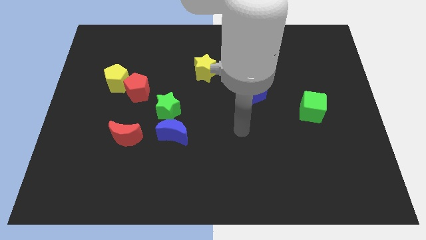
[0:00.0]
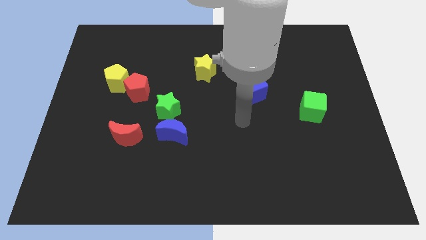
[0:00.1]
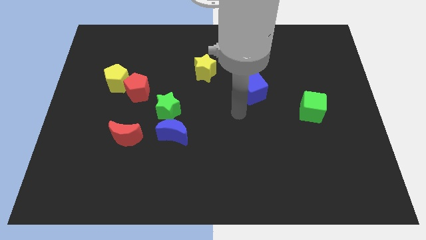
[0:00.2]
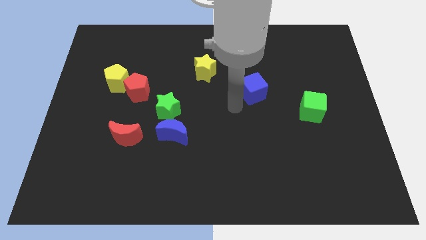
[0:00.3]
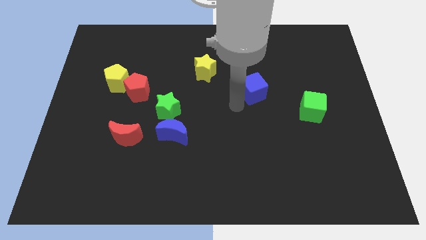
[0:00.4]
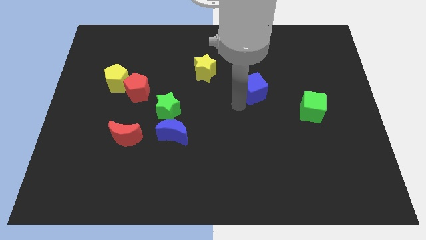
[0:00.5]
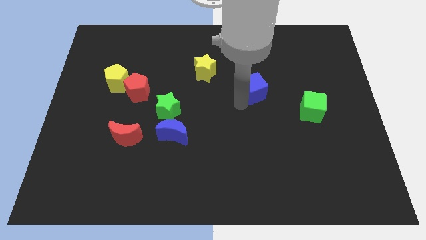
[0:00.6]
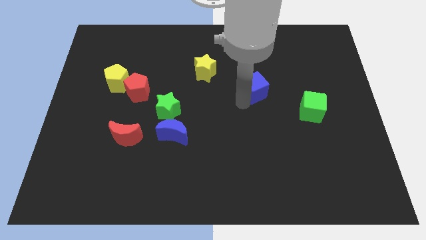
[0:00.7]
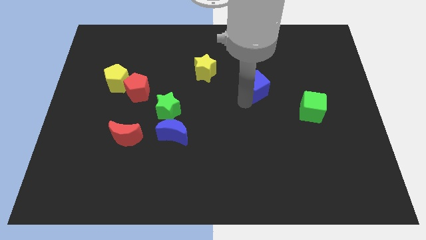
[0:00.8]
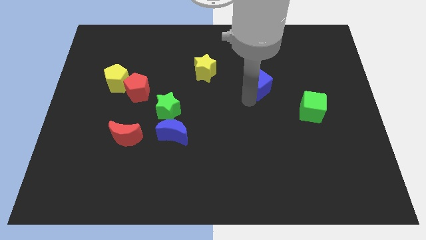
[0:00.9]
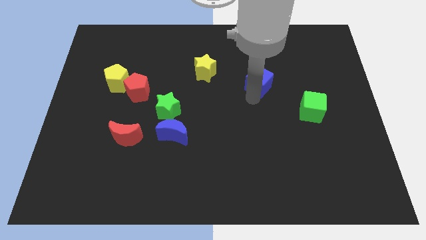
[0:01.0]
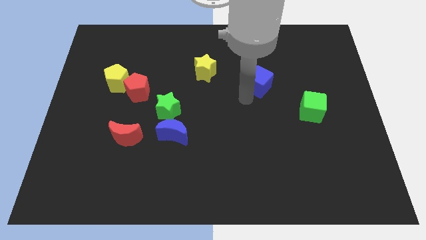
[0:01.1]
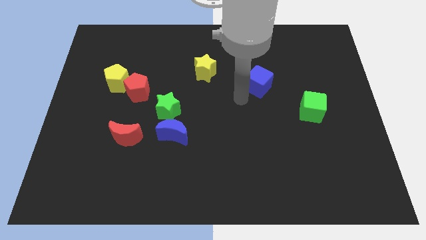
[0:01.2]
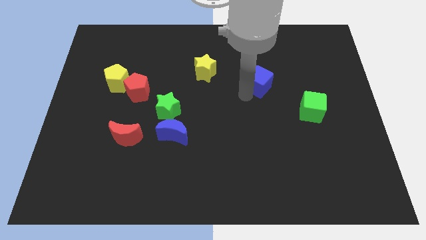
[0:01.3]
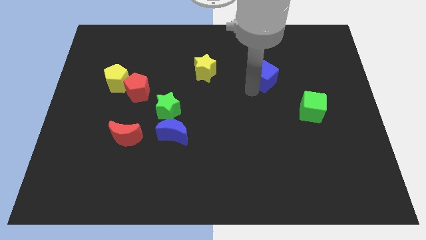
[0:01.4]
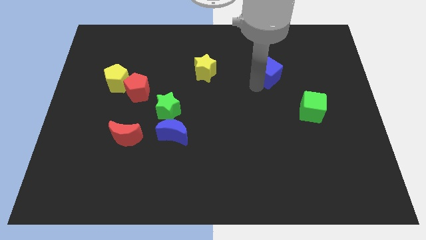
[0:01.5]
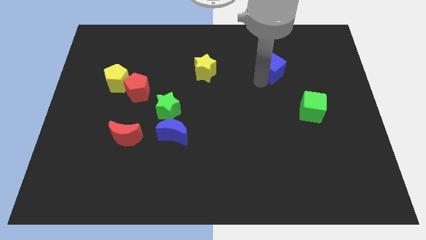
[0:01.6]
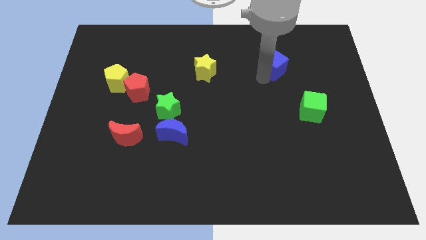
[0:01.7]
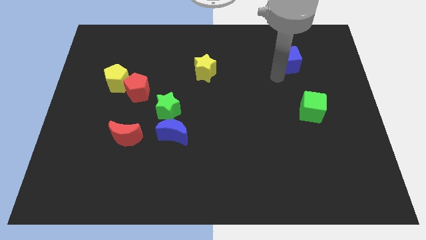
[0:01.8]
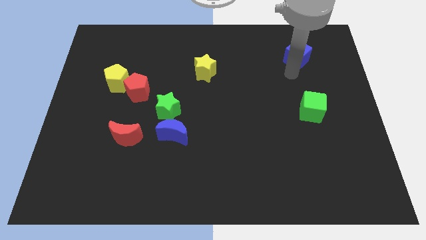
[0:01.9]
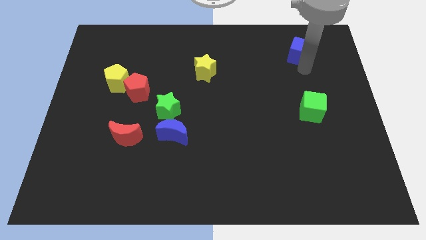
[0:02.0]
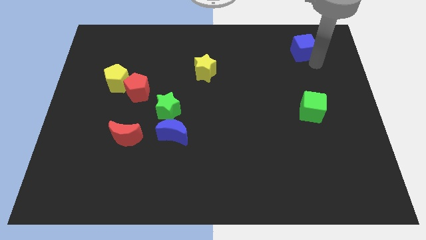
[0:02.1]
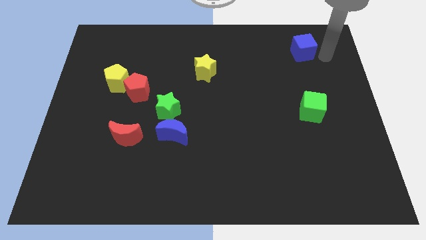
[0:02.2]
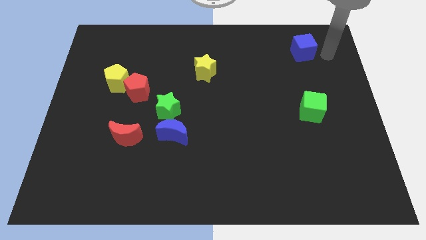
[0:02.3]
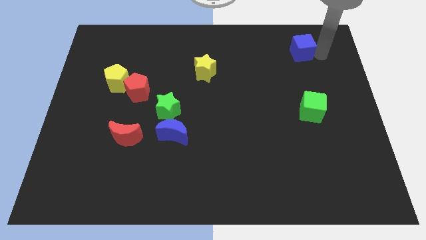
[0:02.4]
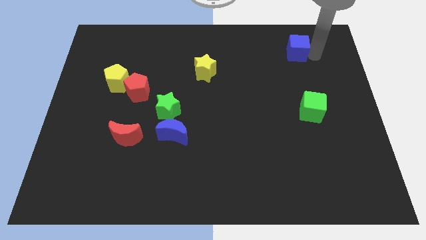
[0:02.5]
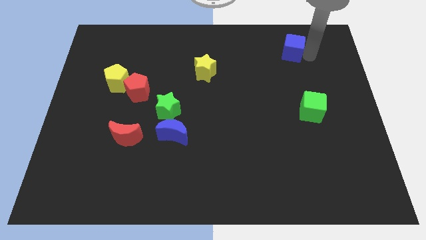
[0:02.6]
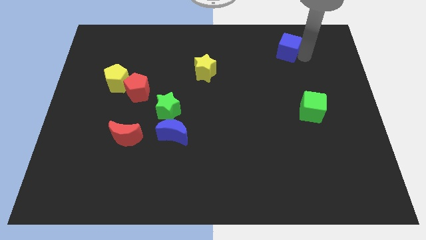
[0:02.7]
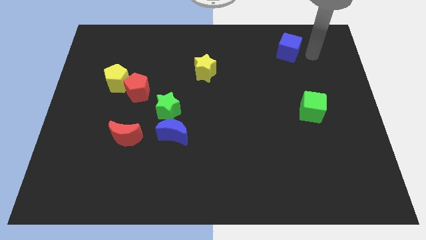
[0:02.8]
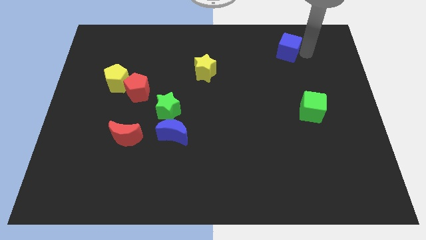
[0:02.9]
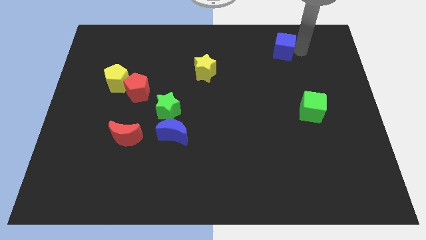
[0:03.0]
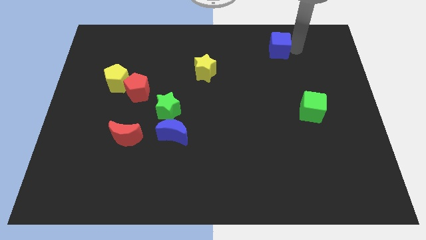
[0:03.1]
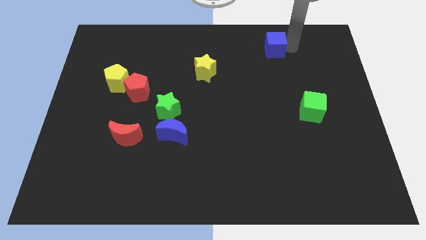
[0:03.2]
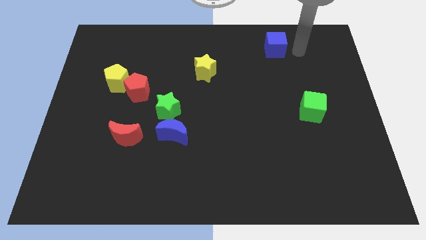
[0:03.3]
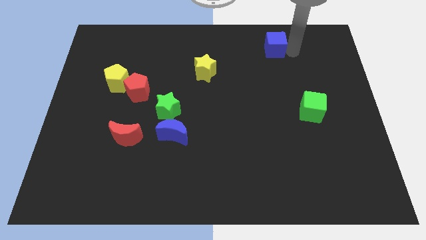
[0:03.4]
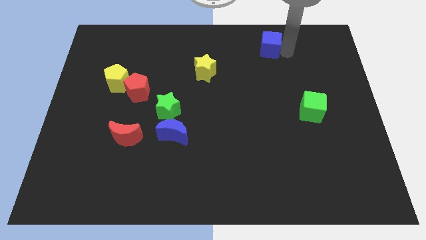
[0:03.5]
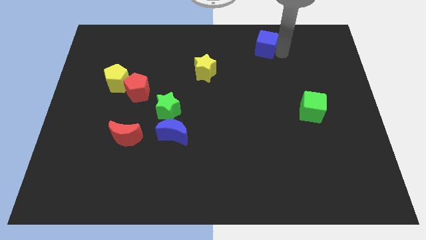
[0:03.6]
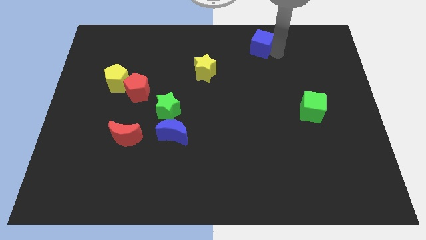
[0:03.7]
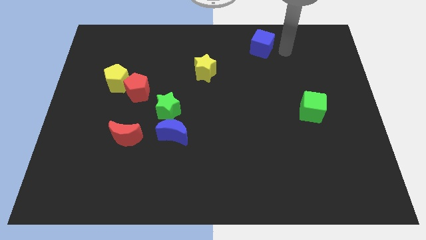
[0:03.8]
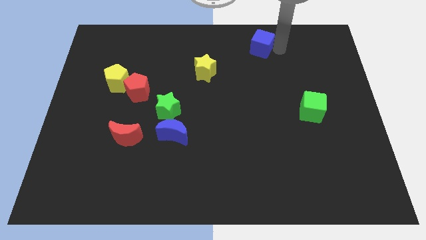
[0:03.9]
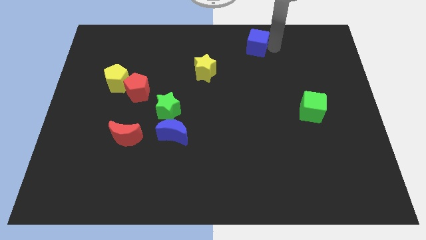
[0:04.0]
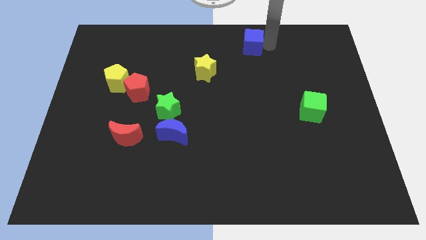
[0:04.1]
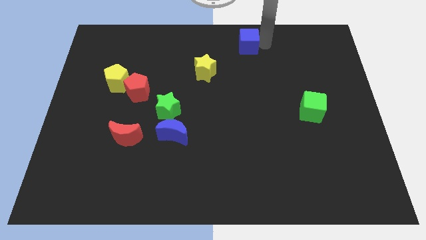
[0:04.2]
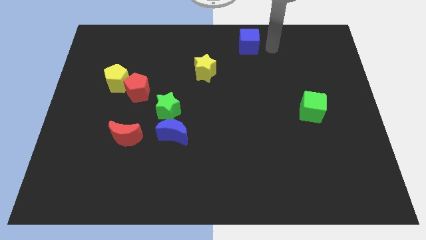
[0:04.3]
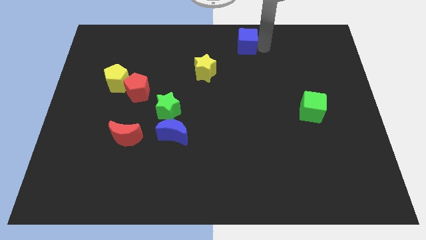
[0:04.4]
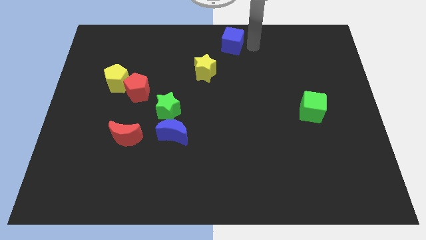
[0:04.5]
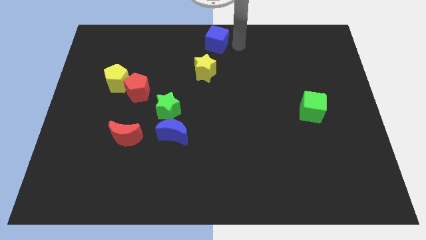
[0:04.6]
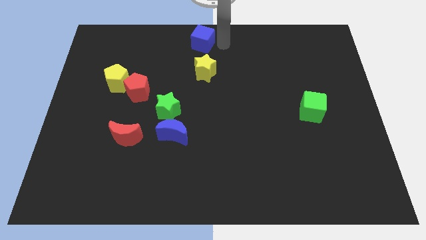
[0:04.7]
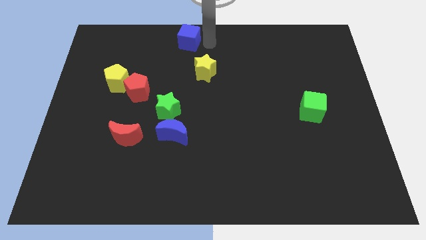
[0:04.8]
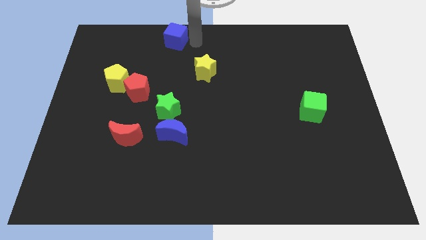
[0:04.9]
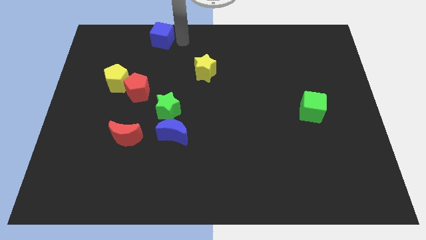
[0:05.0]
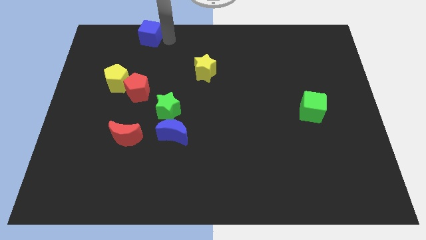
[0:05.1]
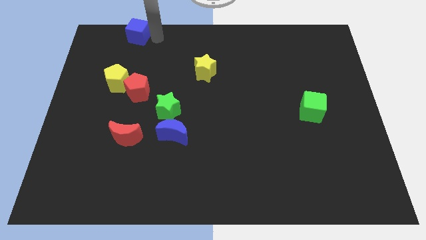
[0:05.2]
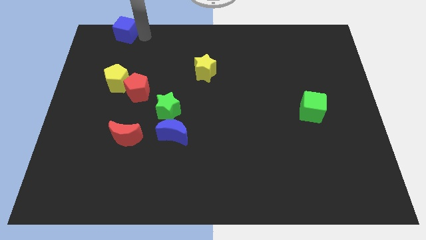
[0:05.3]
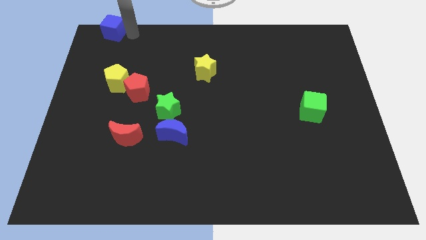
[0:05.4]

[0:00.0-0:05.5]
move the blue cube to the top left of the board

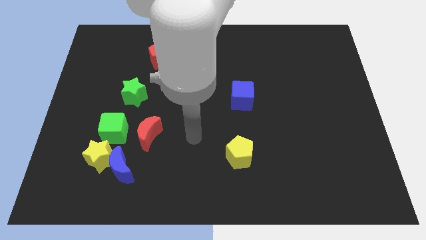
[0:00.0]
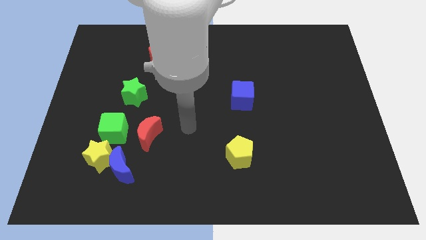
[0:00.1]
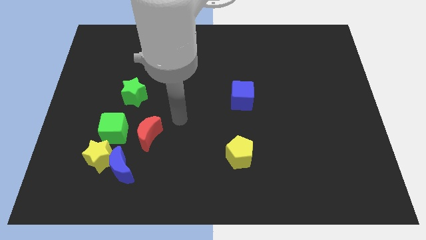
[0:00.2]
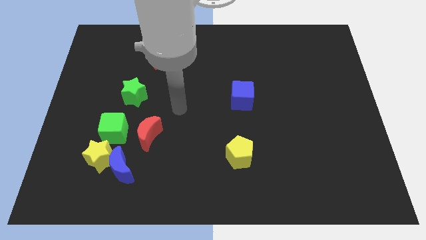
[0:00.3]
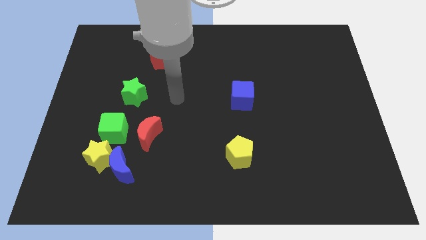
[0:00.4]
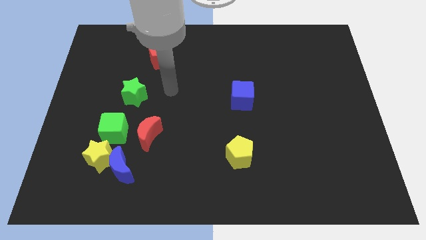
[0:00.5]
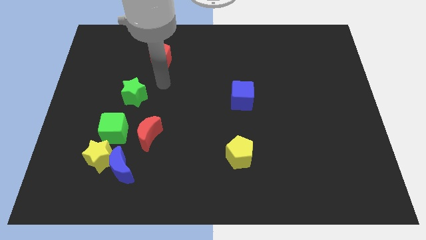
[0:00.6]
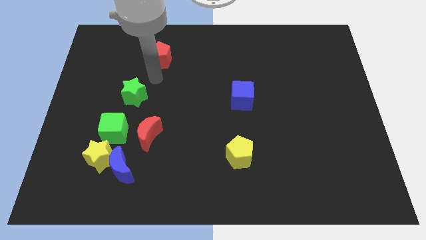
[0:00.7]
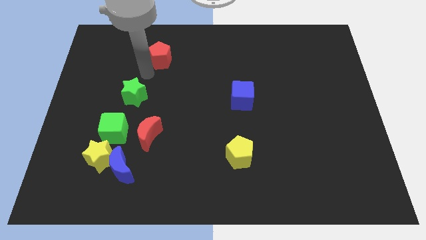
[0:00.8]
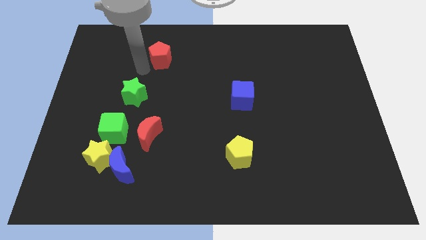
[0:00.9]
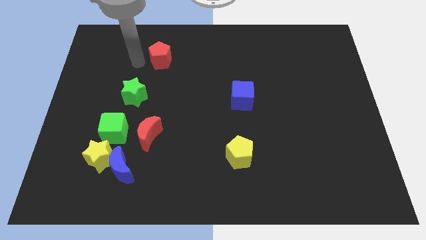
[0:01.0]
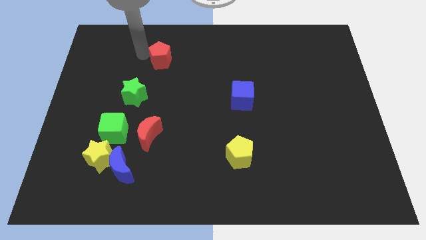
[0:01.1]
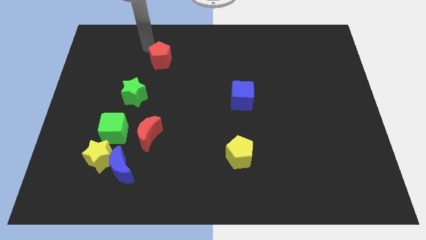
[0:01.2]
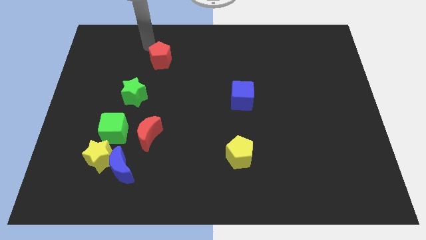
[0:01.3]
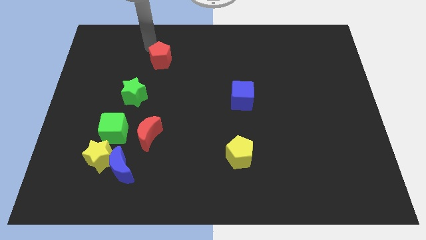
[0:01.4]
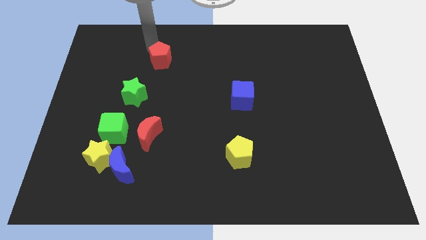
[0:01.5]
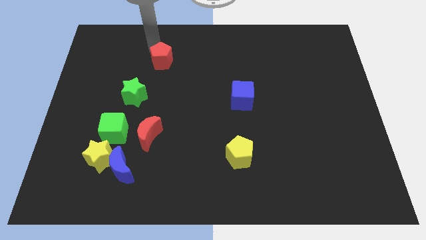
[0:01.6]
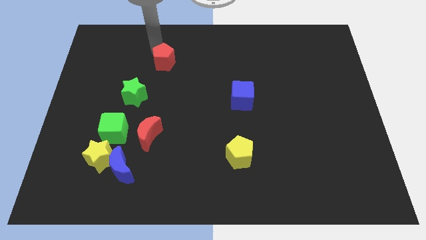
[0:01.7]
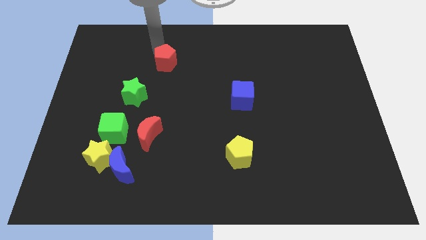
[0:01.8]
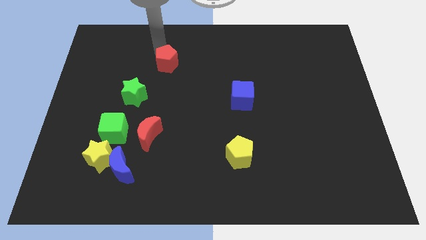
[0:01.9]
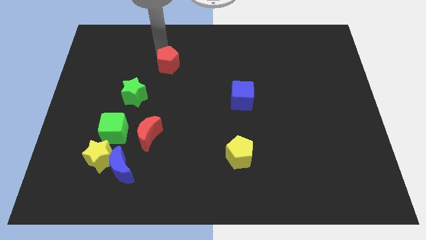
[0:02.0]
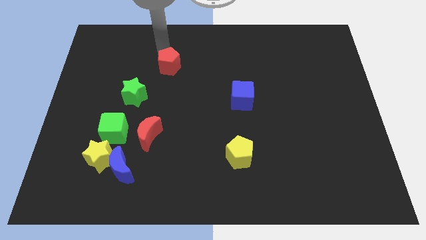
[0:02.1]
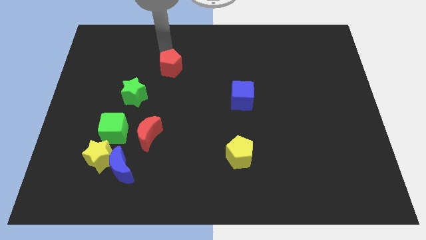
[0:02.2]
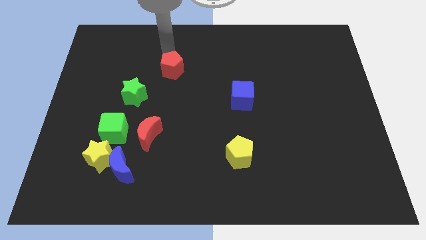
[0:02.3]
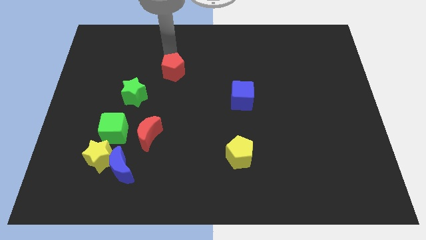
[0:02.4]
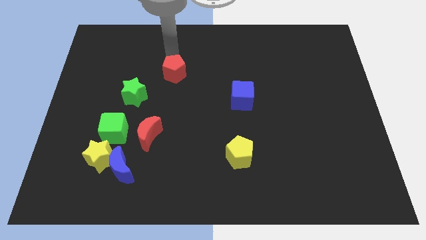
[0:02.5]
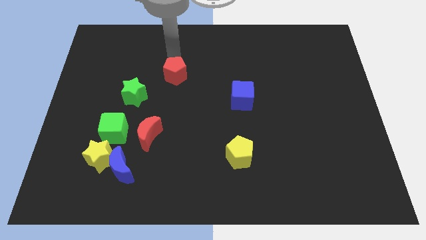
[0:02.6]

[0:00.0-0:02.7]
move the red pentagon to the middle

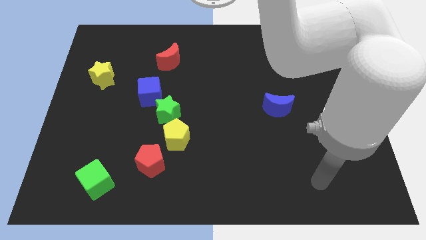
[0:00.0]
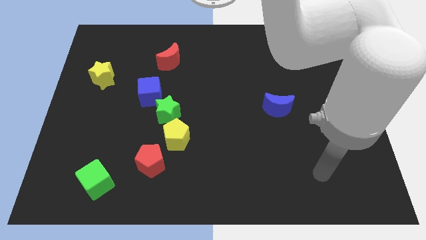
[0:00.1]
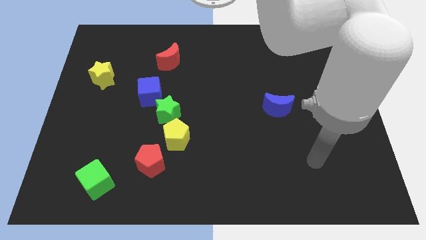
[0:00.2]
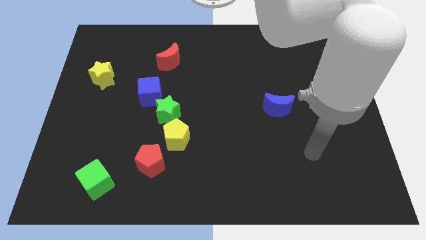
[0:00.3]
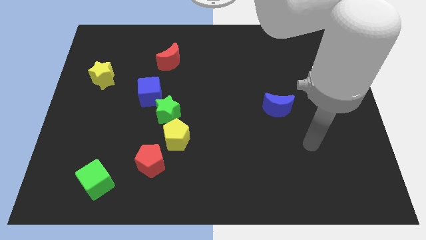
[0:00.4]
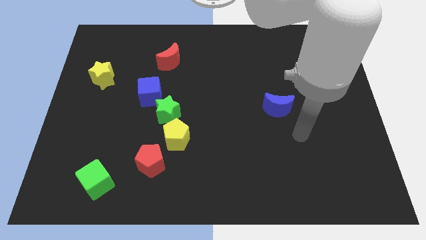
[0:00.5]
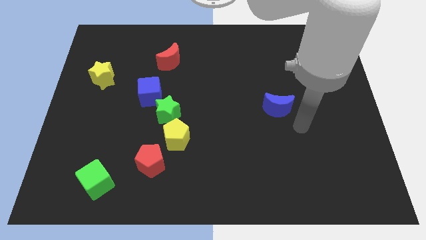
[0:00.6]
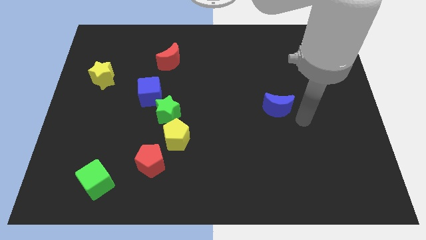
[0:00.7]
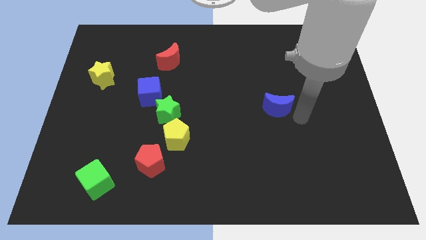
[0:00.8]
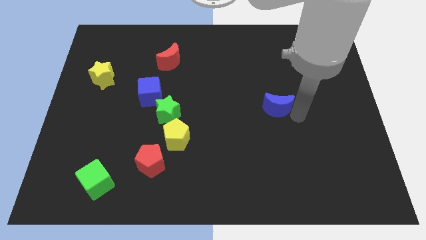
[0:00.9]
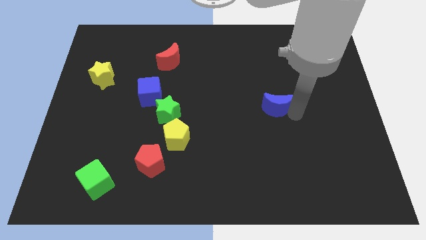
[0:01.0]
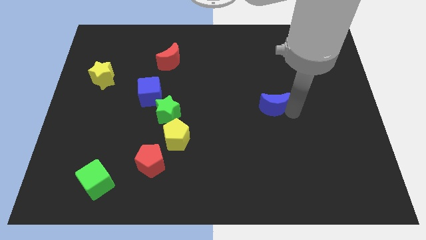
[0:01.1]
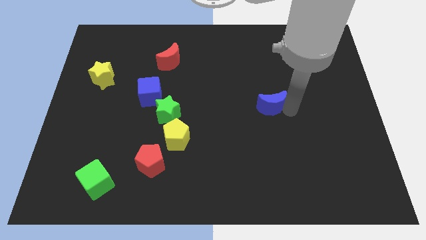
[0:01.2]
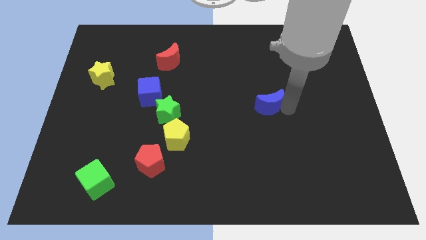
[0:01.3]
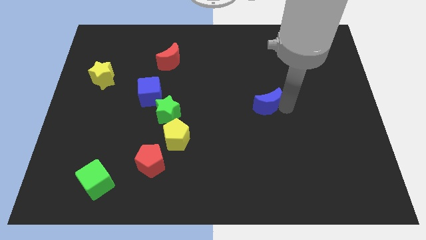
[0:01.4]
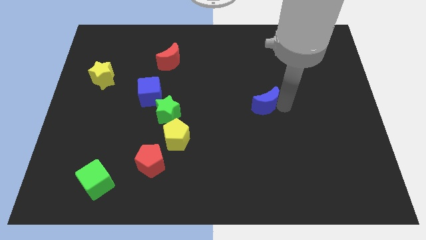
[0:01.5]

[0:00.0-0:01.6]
push the blue moon to the middle
